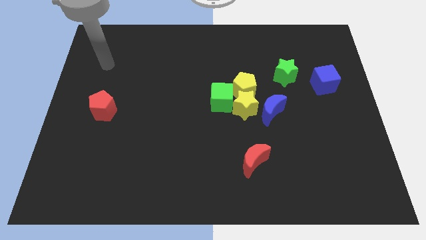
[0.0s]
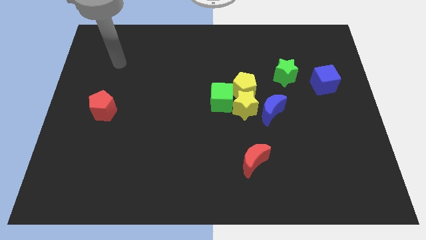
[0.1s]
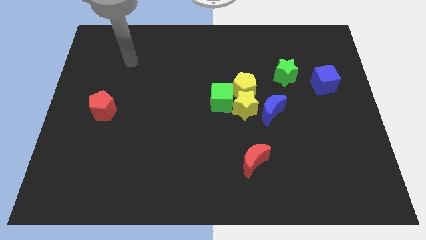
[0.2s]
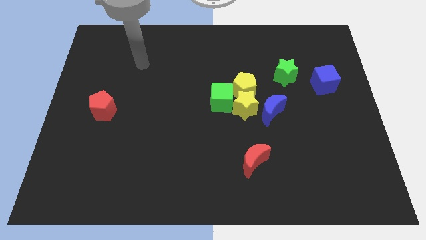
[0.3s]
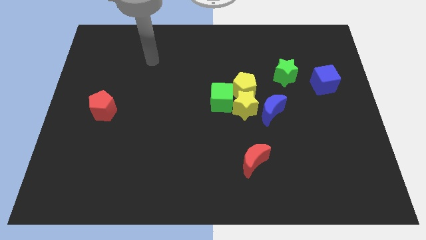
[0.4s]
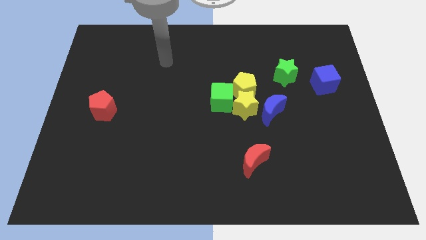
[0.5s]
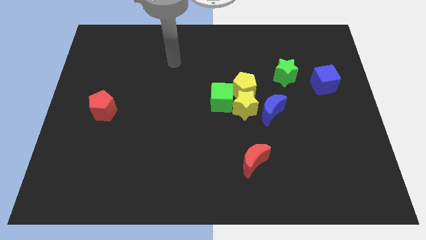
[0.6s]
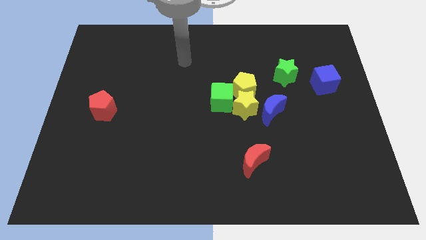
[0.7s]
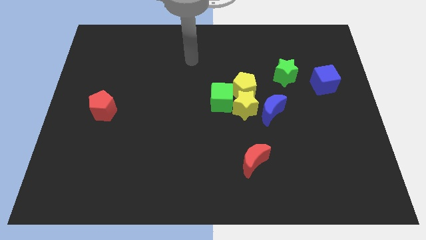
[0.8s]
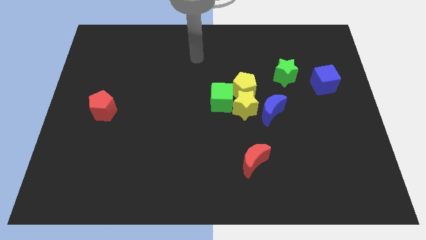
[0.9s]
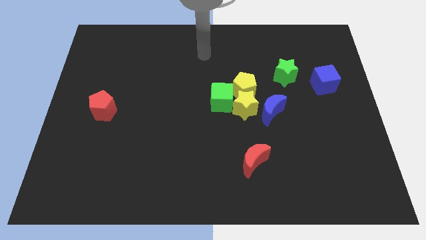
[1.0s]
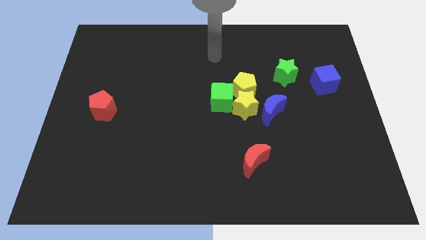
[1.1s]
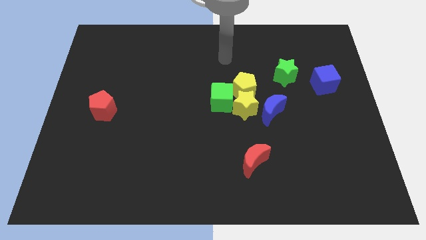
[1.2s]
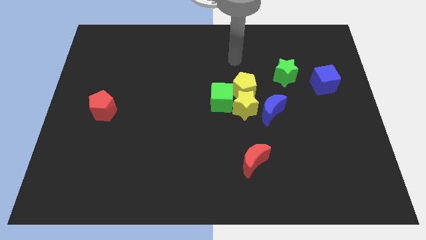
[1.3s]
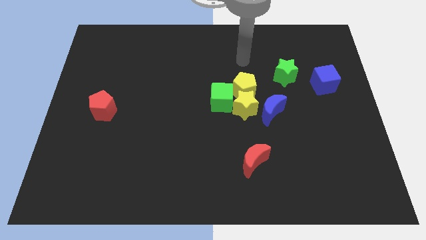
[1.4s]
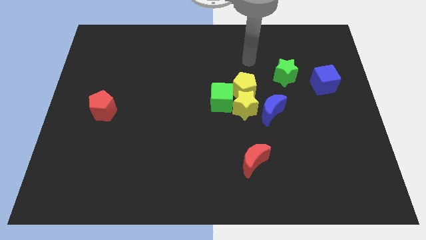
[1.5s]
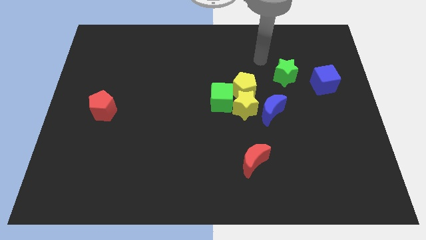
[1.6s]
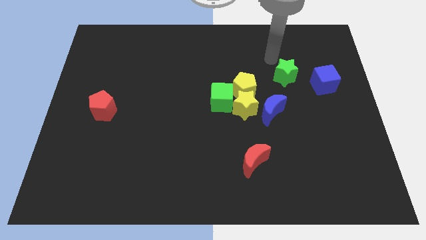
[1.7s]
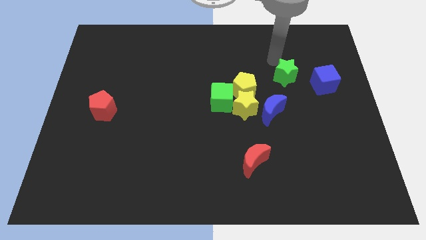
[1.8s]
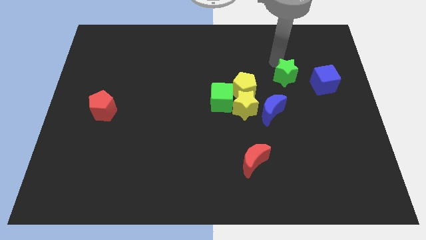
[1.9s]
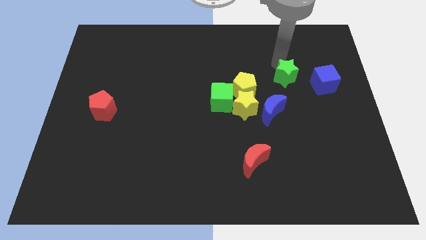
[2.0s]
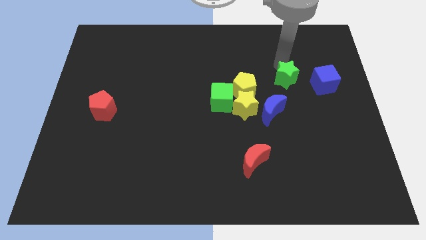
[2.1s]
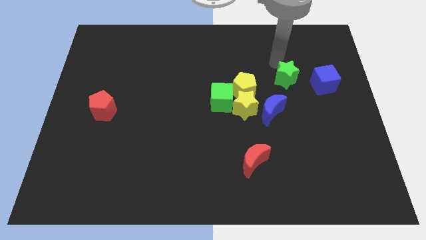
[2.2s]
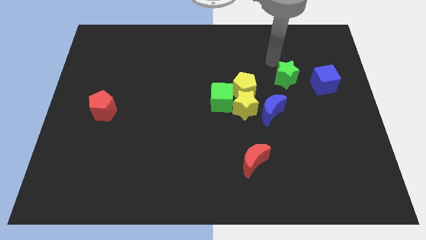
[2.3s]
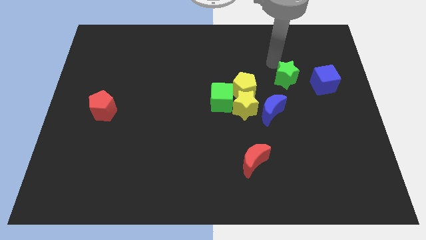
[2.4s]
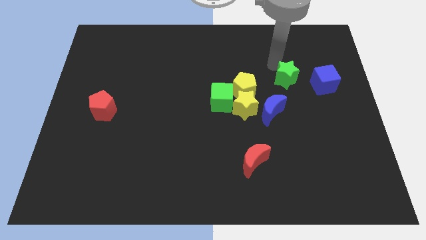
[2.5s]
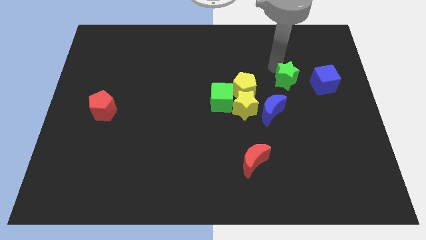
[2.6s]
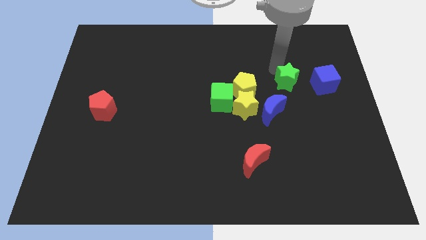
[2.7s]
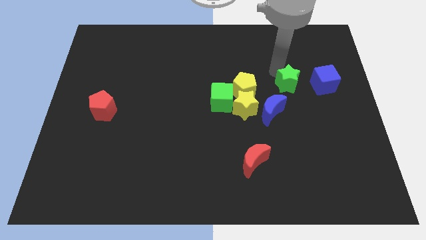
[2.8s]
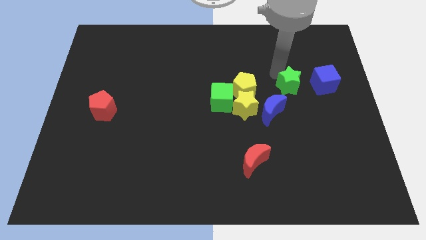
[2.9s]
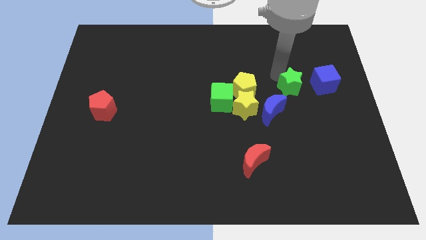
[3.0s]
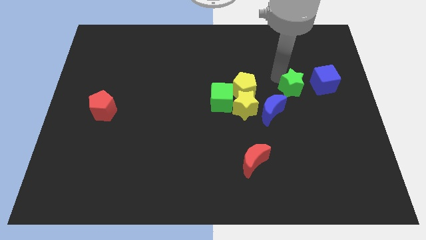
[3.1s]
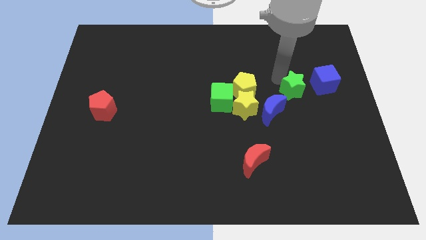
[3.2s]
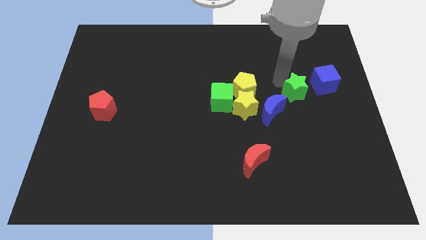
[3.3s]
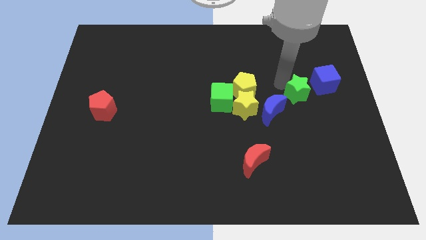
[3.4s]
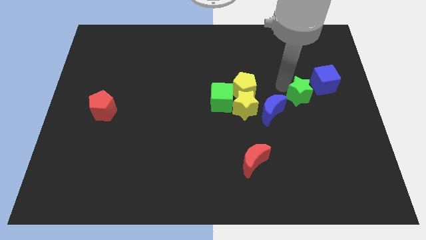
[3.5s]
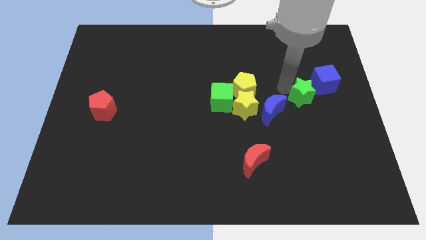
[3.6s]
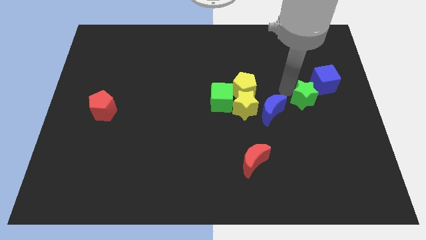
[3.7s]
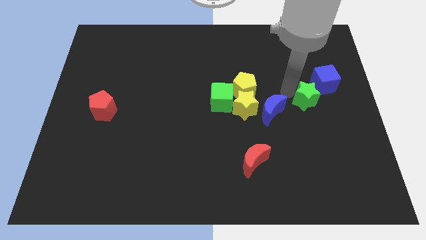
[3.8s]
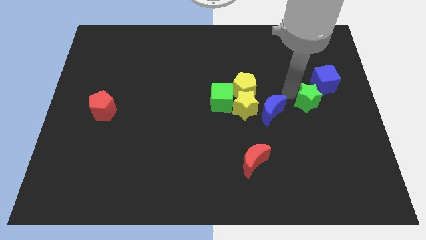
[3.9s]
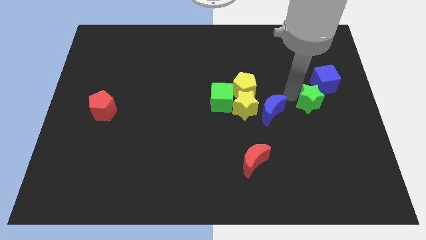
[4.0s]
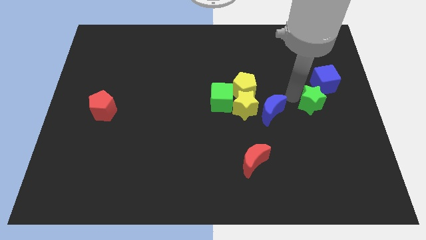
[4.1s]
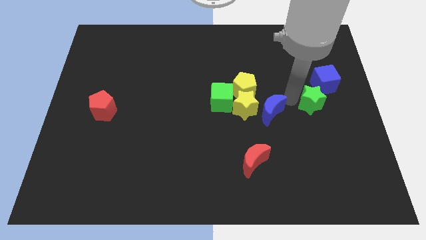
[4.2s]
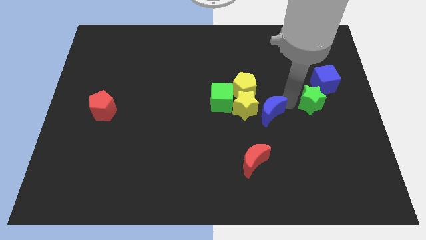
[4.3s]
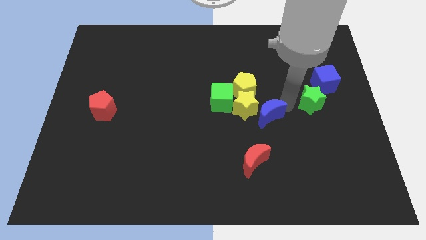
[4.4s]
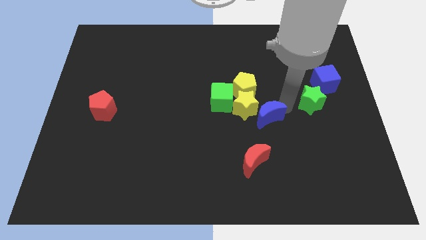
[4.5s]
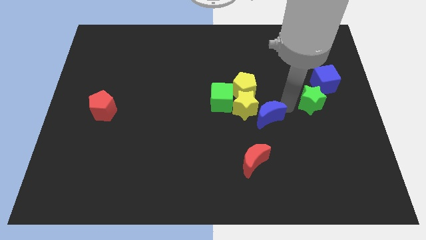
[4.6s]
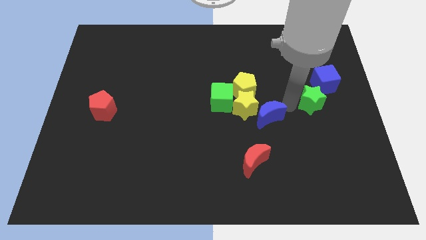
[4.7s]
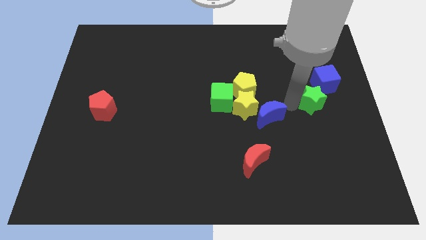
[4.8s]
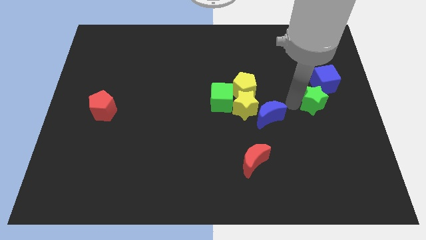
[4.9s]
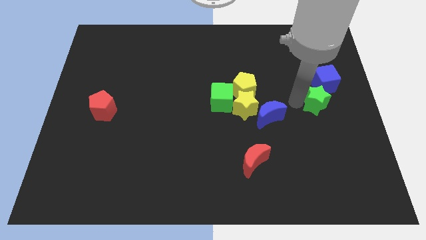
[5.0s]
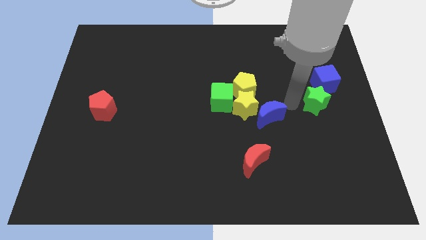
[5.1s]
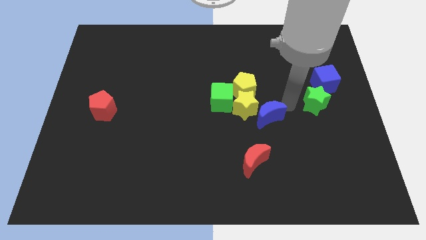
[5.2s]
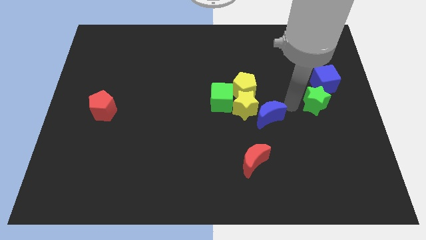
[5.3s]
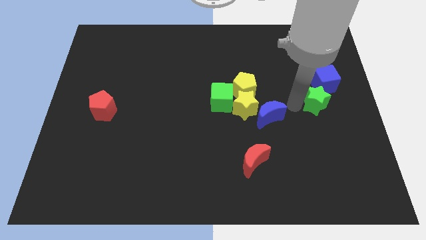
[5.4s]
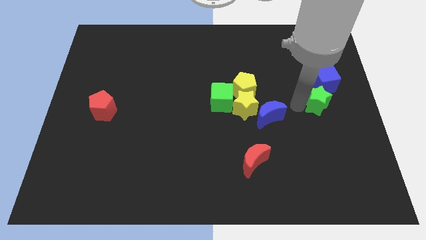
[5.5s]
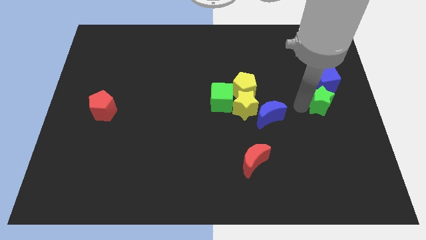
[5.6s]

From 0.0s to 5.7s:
push the green star to the right side of the board
